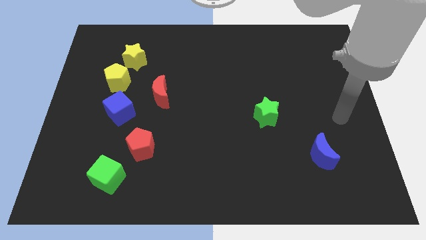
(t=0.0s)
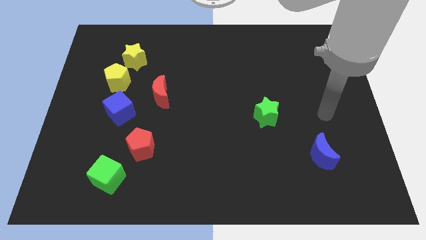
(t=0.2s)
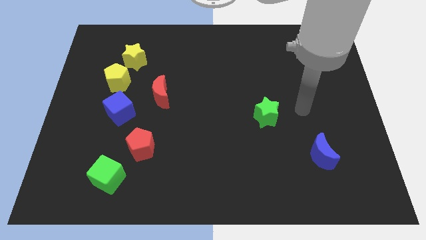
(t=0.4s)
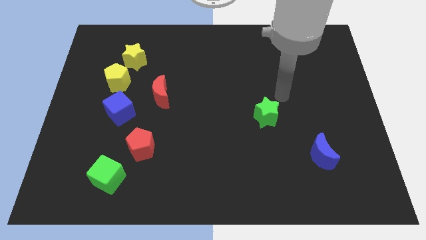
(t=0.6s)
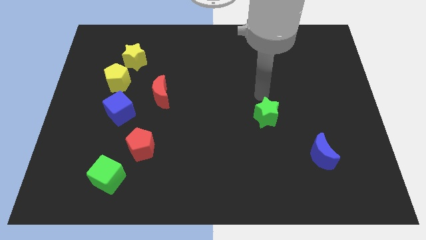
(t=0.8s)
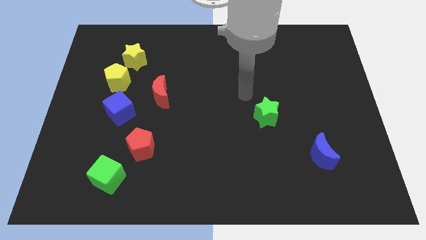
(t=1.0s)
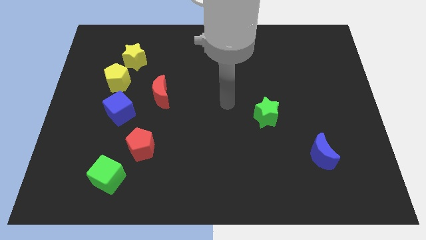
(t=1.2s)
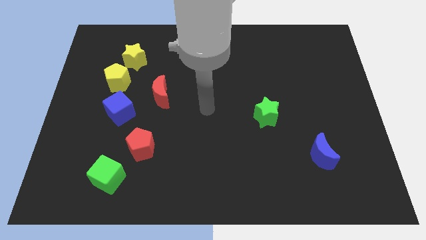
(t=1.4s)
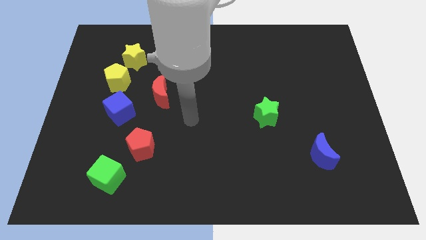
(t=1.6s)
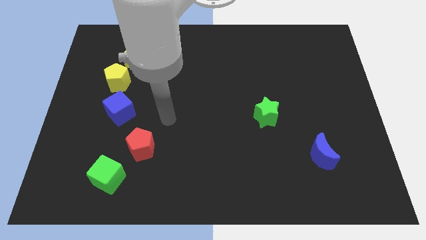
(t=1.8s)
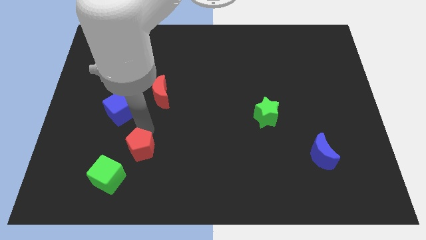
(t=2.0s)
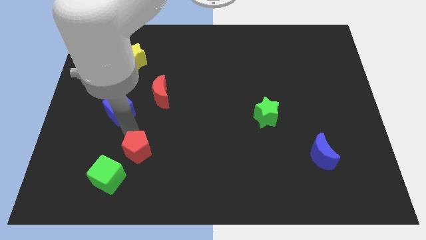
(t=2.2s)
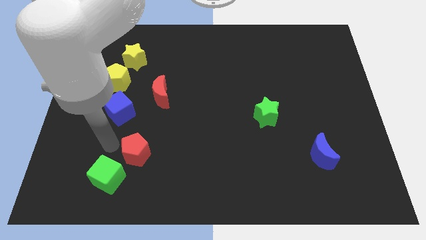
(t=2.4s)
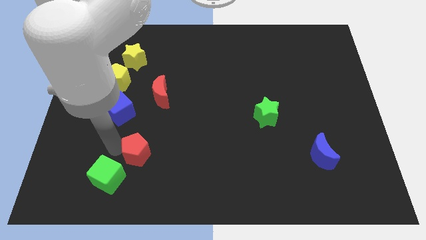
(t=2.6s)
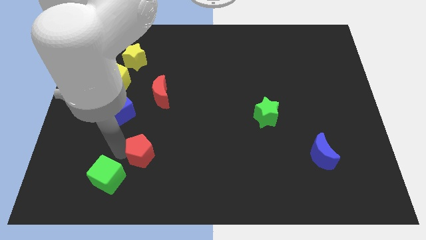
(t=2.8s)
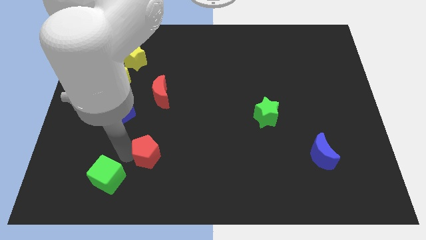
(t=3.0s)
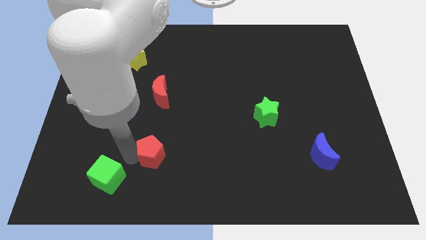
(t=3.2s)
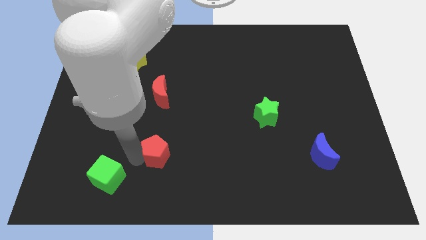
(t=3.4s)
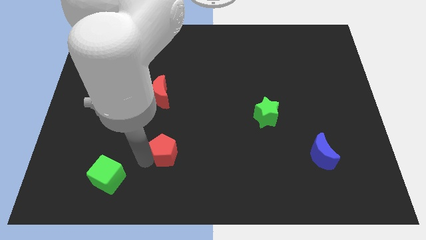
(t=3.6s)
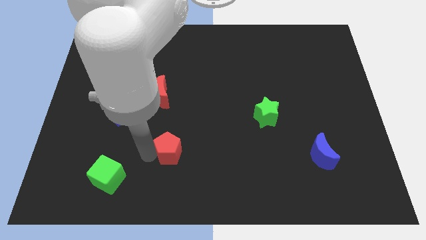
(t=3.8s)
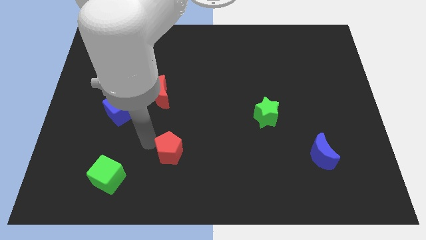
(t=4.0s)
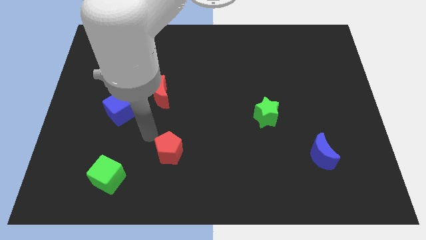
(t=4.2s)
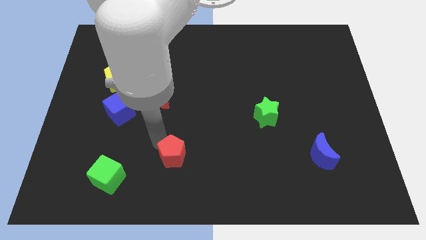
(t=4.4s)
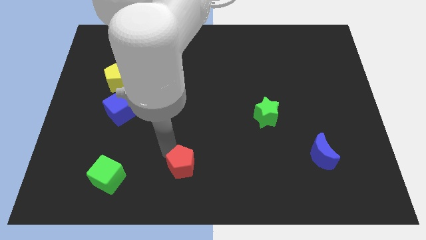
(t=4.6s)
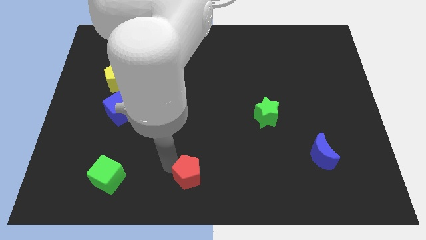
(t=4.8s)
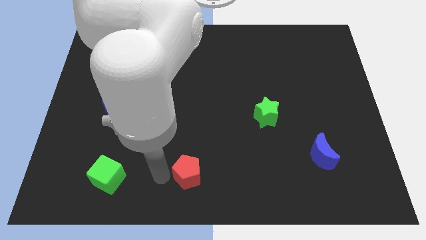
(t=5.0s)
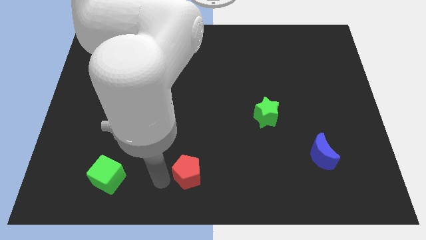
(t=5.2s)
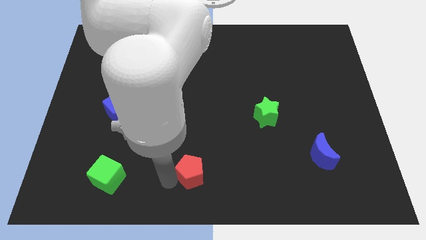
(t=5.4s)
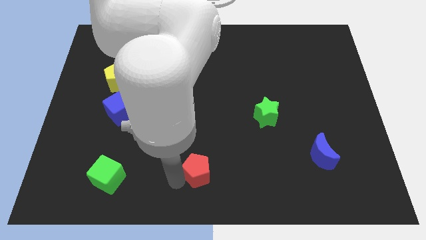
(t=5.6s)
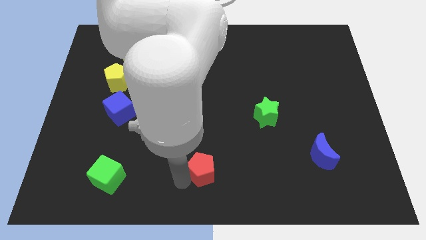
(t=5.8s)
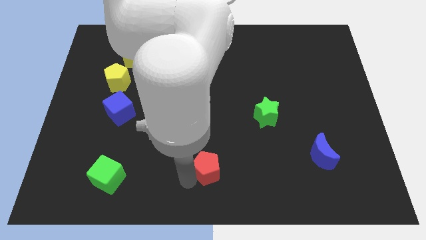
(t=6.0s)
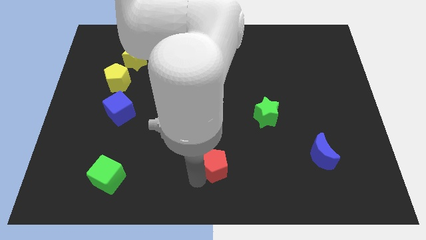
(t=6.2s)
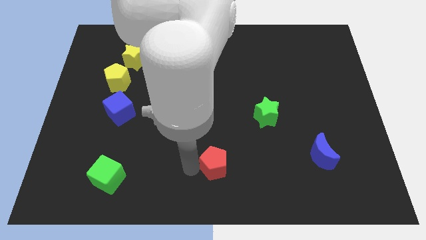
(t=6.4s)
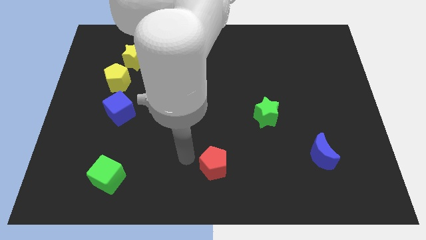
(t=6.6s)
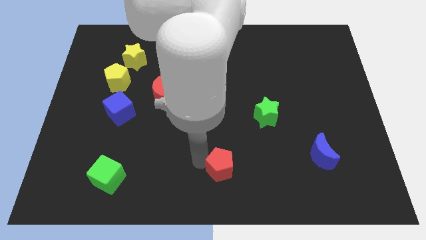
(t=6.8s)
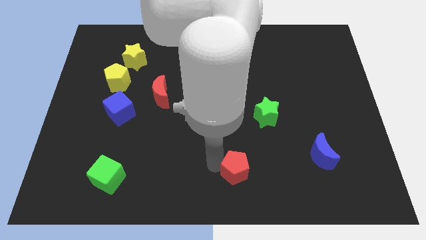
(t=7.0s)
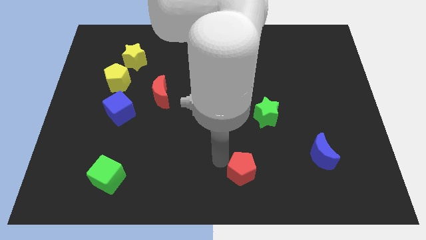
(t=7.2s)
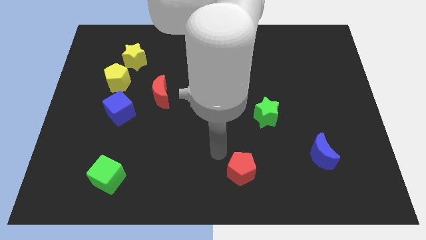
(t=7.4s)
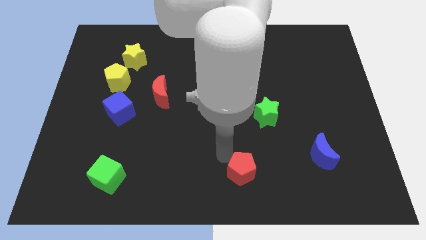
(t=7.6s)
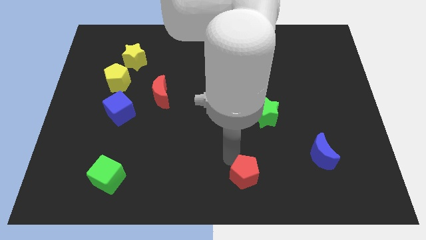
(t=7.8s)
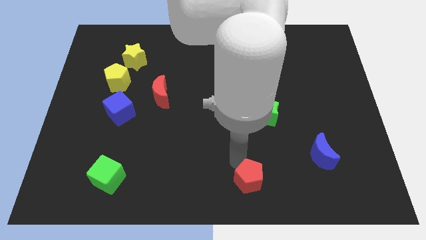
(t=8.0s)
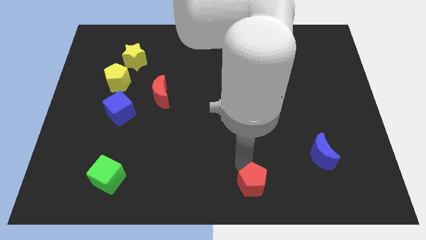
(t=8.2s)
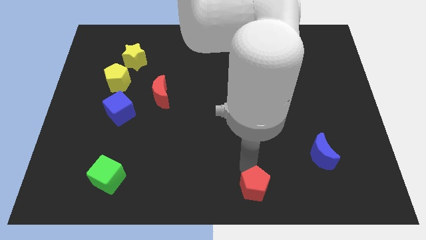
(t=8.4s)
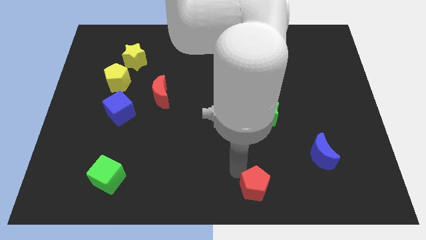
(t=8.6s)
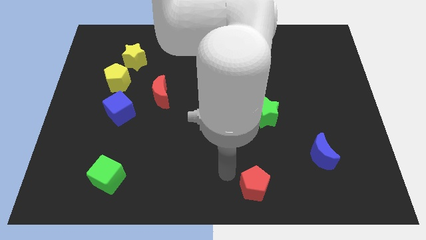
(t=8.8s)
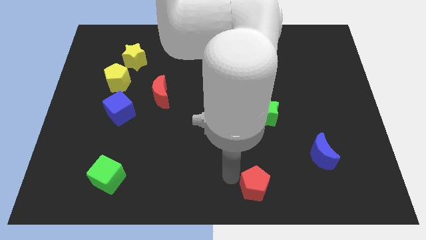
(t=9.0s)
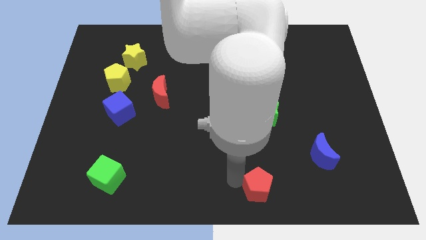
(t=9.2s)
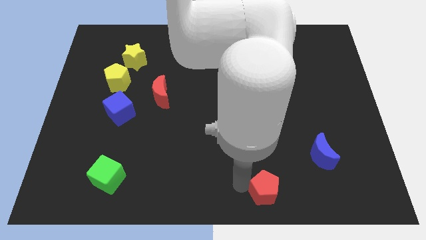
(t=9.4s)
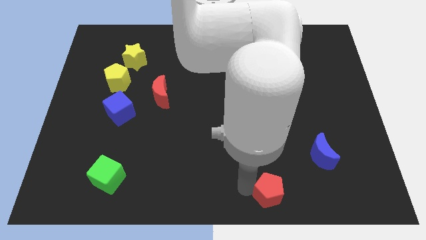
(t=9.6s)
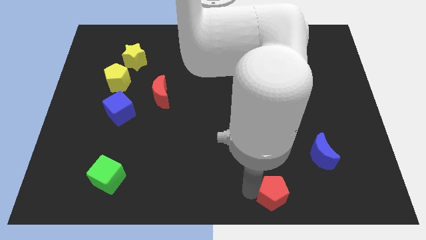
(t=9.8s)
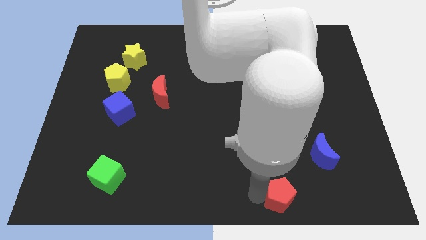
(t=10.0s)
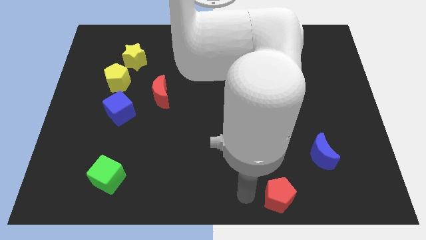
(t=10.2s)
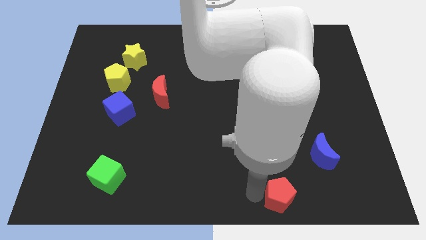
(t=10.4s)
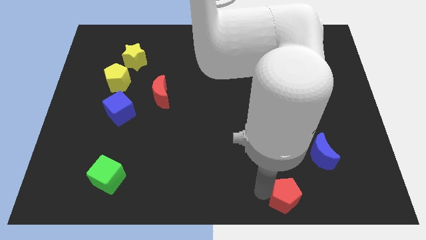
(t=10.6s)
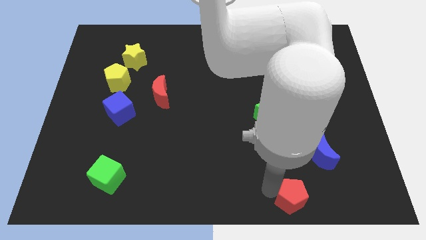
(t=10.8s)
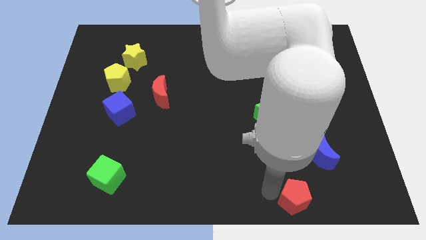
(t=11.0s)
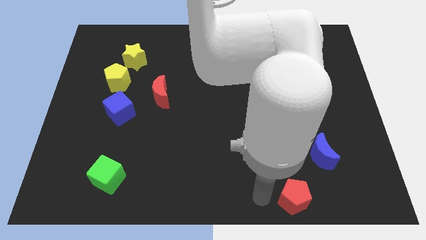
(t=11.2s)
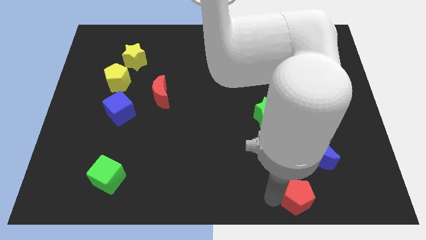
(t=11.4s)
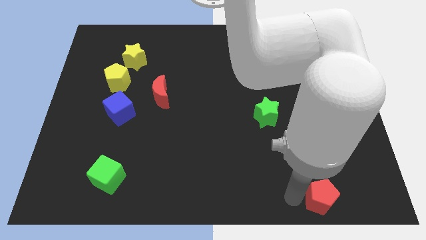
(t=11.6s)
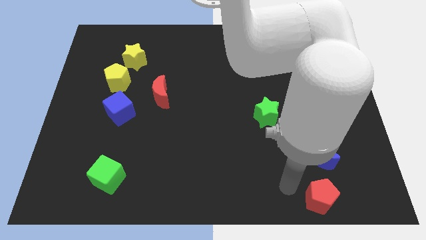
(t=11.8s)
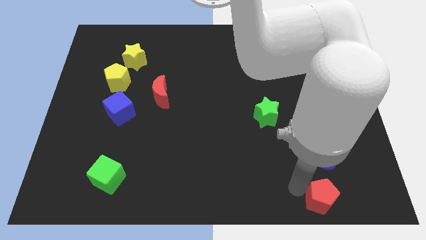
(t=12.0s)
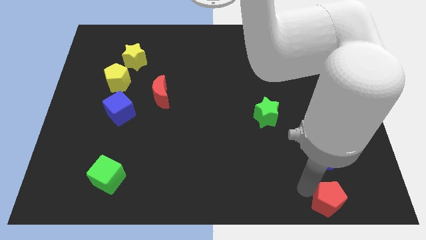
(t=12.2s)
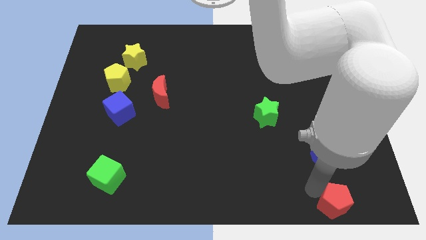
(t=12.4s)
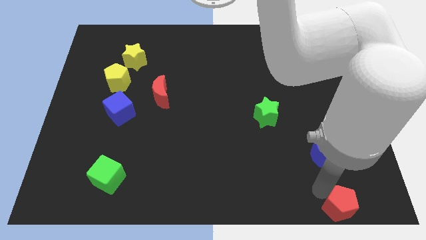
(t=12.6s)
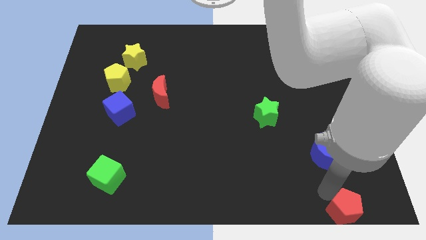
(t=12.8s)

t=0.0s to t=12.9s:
push the red pentagon to the bottom right corner
